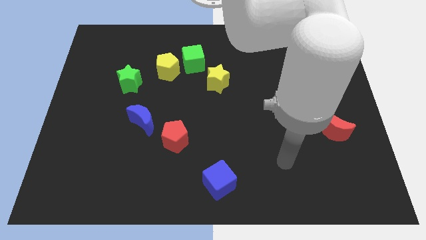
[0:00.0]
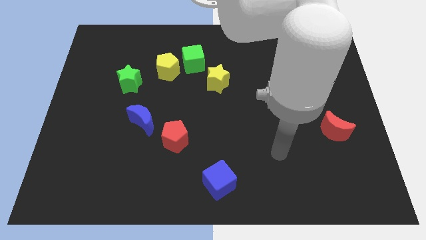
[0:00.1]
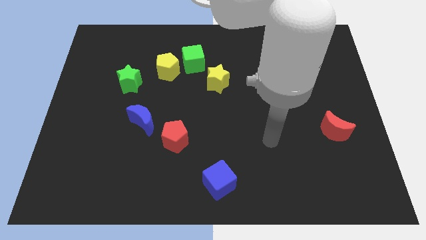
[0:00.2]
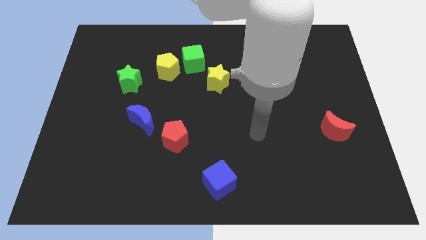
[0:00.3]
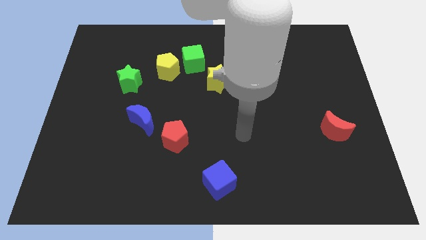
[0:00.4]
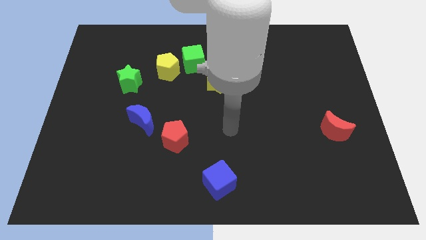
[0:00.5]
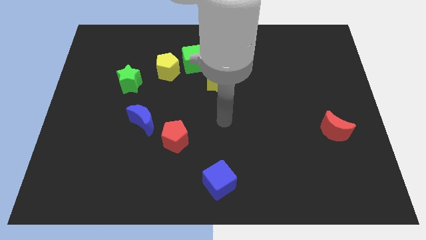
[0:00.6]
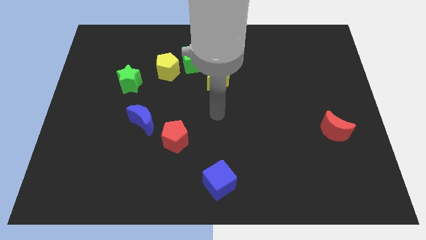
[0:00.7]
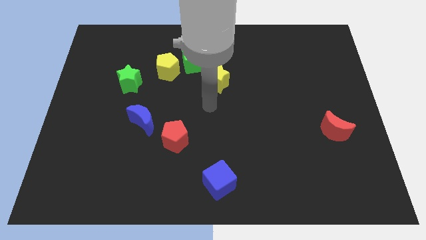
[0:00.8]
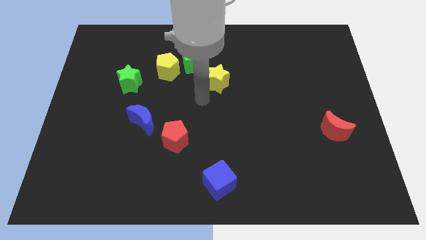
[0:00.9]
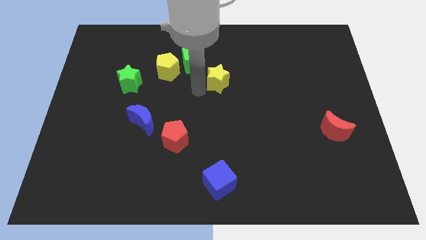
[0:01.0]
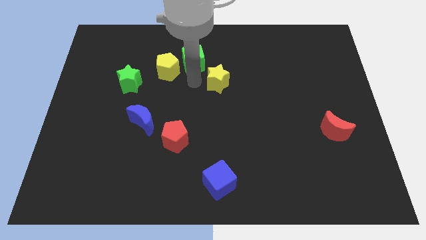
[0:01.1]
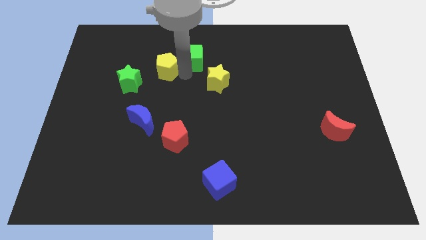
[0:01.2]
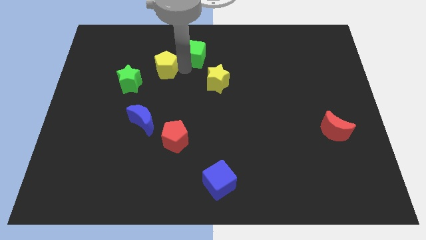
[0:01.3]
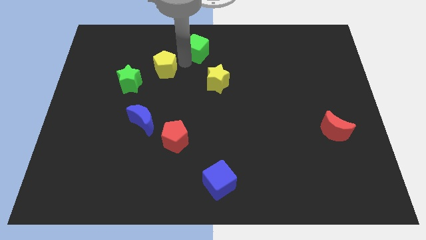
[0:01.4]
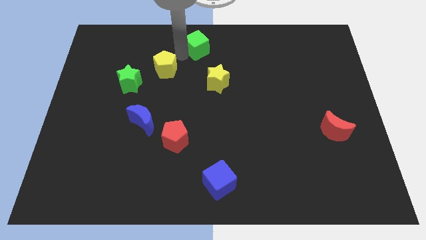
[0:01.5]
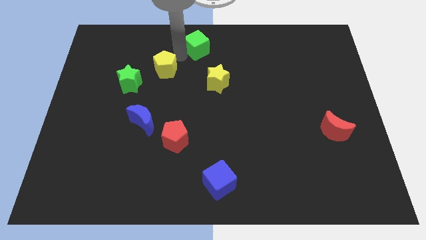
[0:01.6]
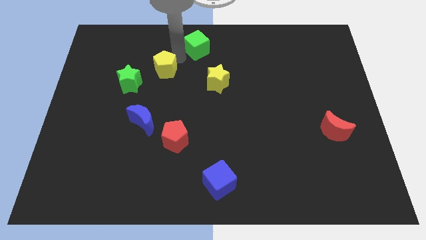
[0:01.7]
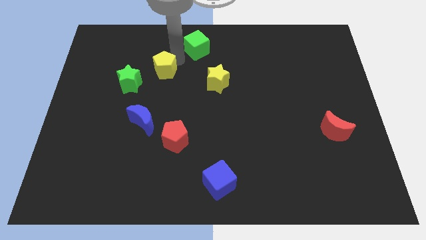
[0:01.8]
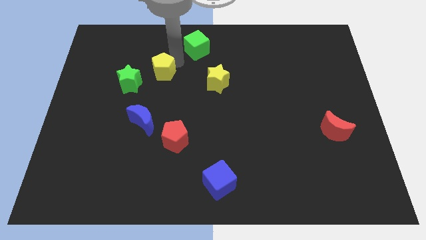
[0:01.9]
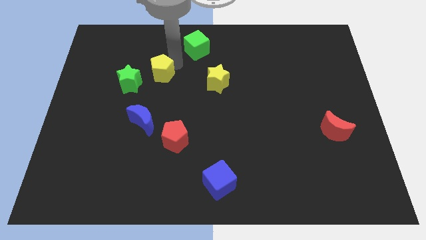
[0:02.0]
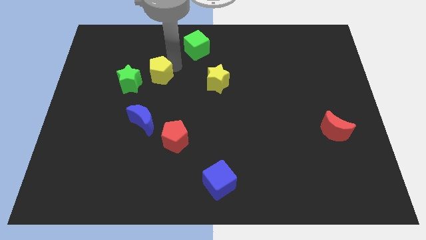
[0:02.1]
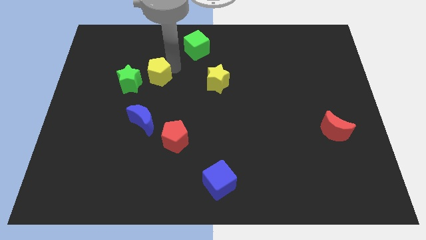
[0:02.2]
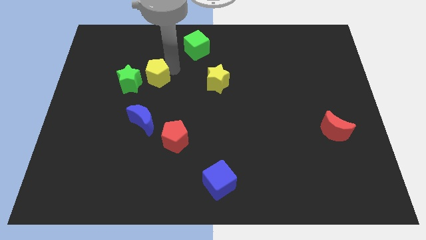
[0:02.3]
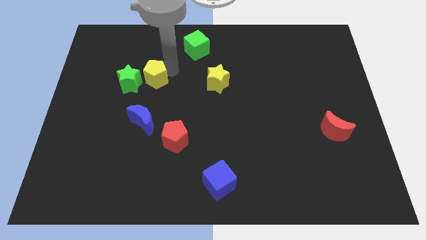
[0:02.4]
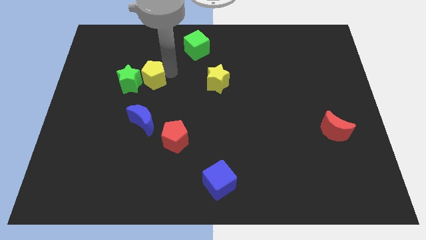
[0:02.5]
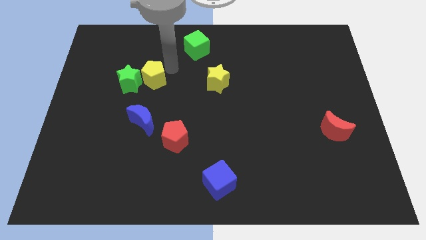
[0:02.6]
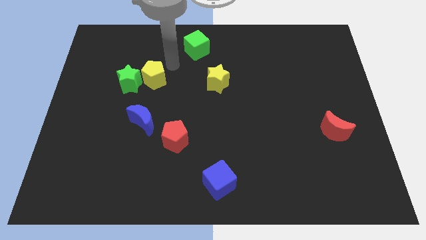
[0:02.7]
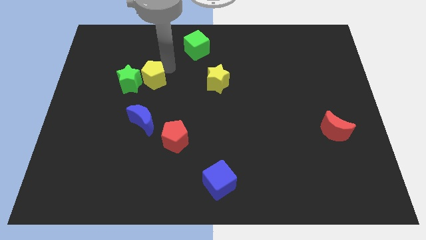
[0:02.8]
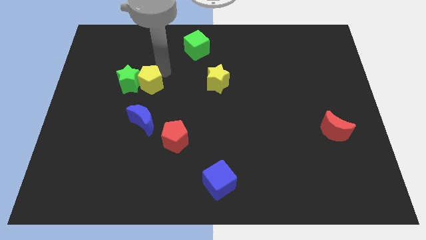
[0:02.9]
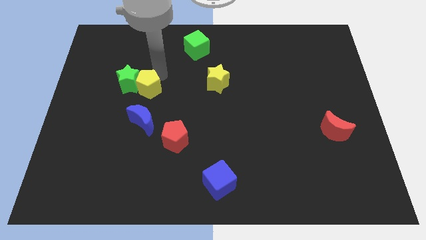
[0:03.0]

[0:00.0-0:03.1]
push the yellow pentagon down and then left a bit

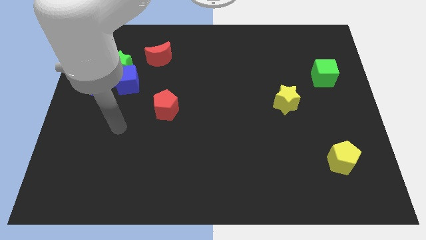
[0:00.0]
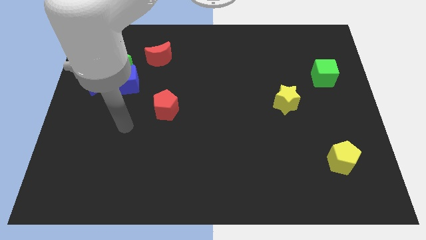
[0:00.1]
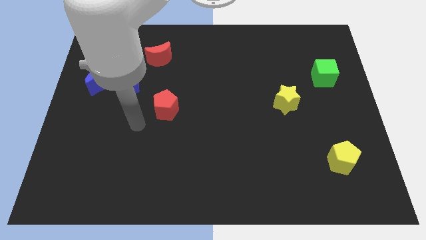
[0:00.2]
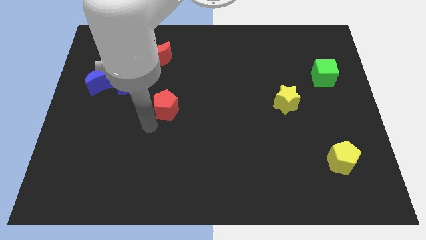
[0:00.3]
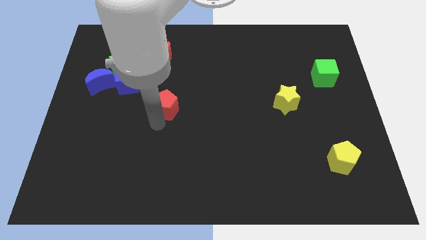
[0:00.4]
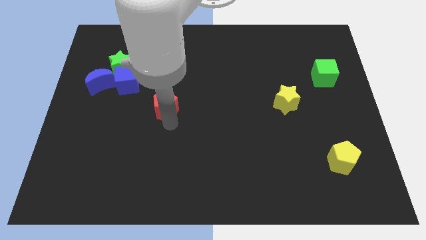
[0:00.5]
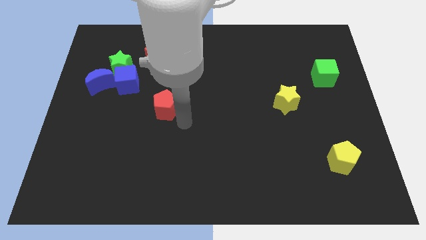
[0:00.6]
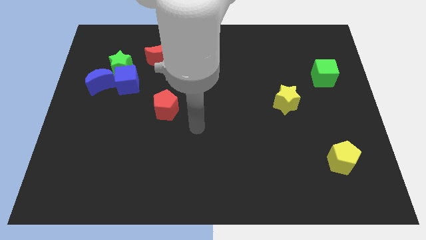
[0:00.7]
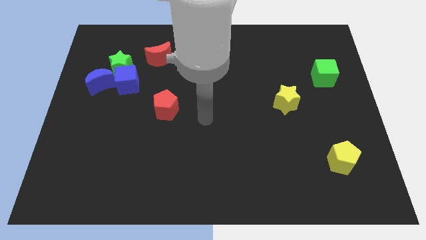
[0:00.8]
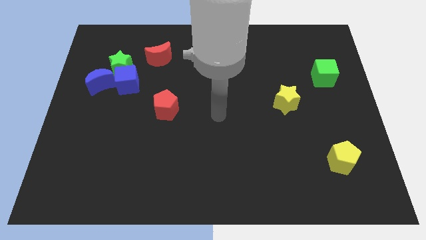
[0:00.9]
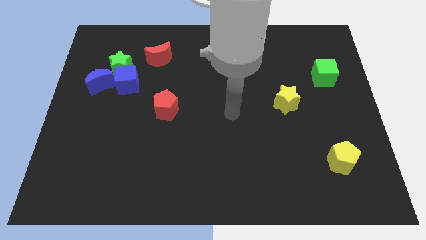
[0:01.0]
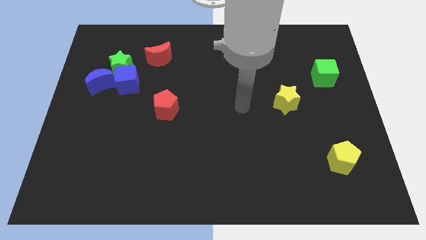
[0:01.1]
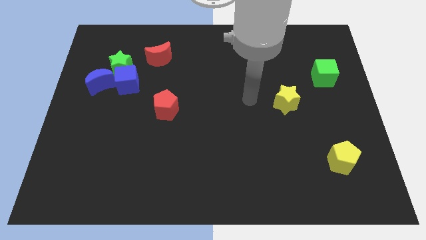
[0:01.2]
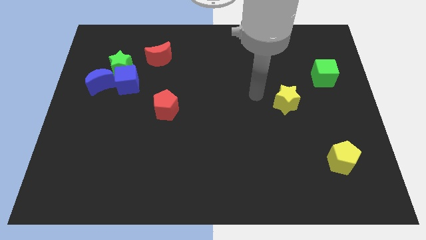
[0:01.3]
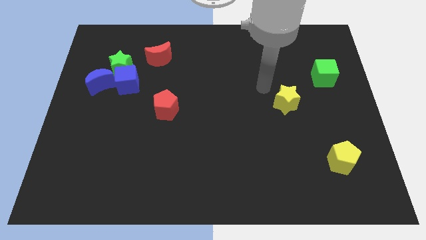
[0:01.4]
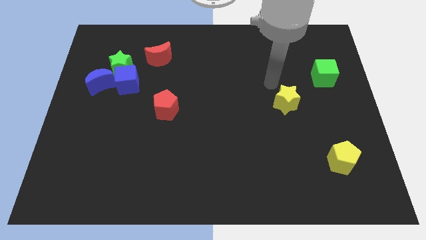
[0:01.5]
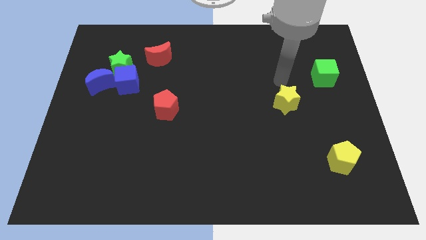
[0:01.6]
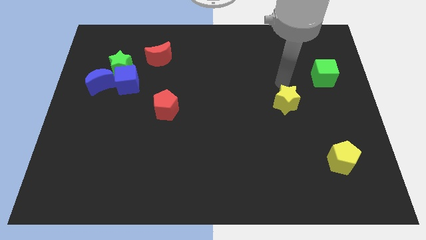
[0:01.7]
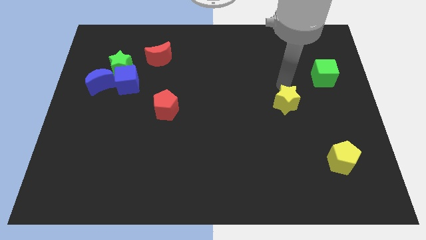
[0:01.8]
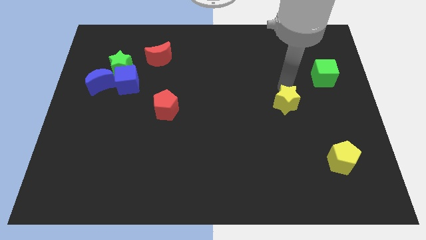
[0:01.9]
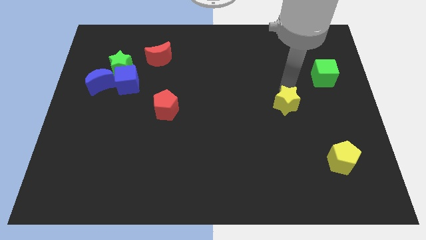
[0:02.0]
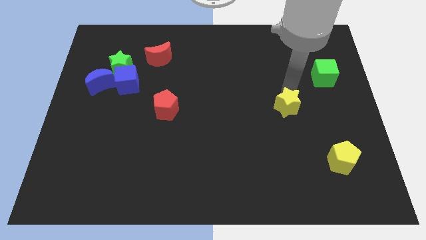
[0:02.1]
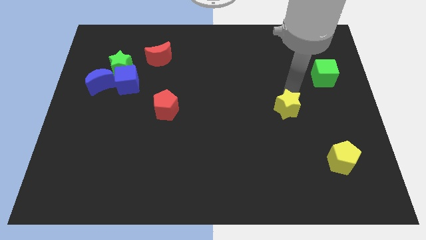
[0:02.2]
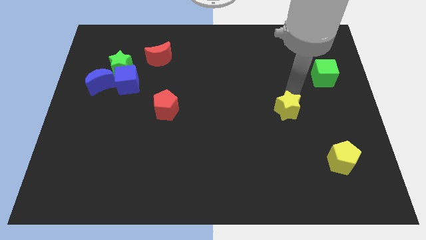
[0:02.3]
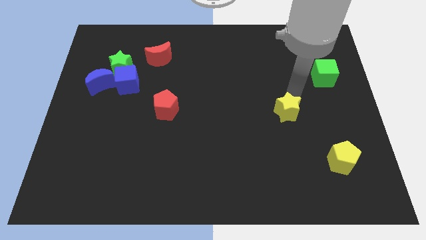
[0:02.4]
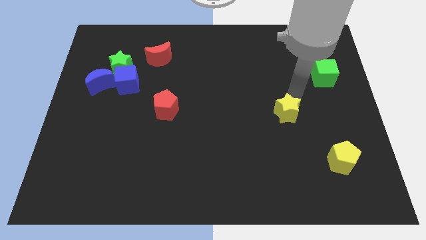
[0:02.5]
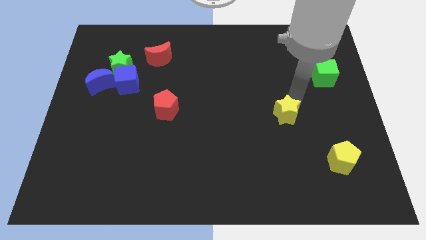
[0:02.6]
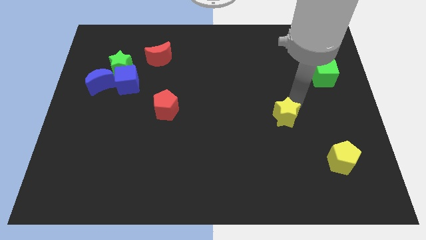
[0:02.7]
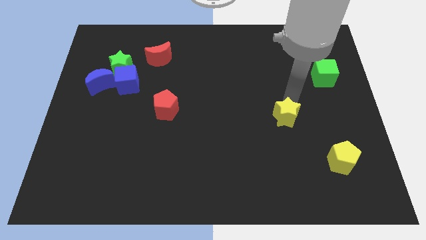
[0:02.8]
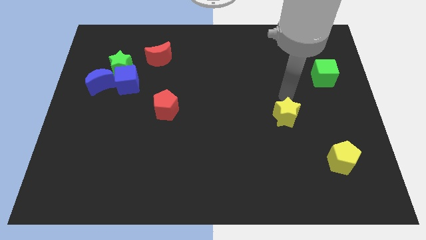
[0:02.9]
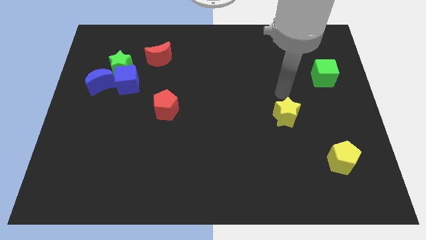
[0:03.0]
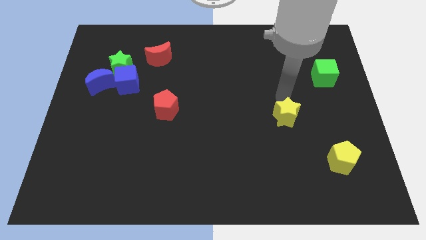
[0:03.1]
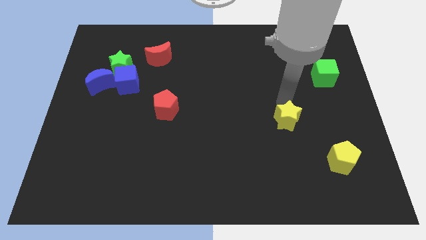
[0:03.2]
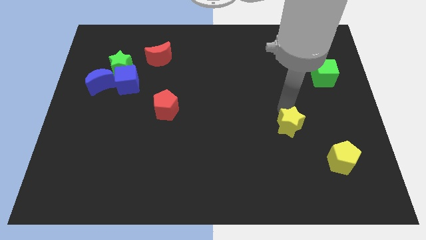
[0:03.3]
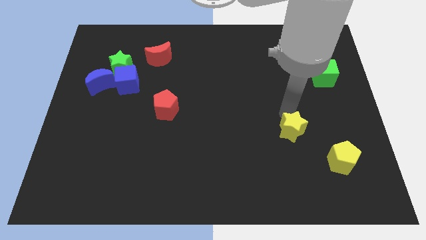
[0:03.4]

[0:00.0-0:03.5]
move the yellow star down somewhat

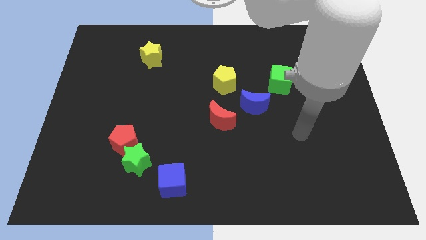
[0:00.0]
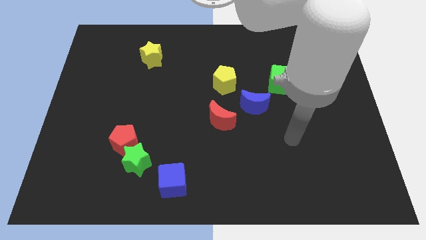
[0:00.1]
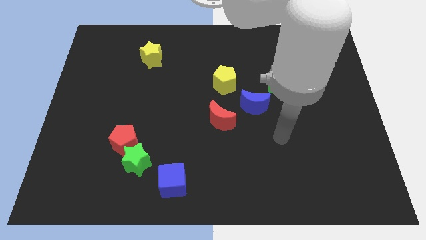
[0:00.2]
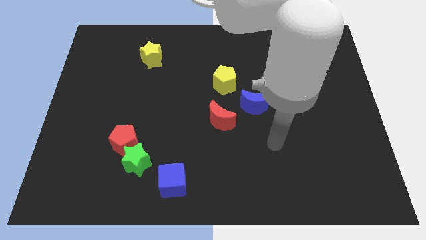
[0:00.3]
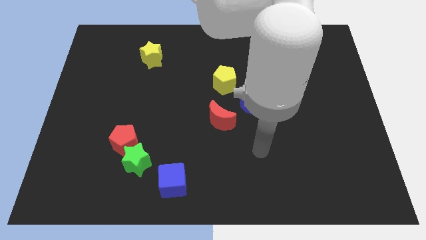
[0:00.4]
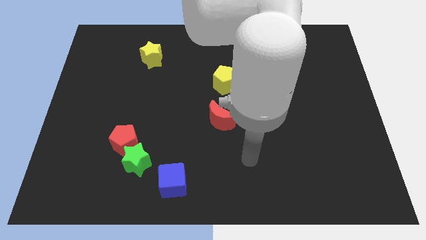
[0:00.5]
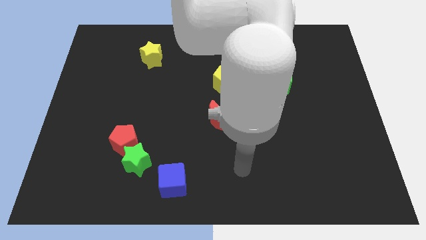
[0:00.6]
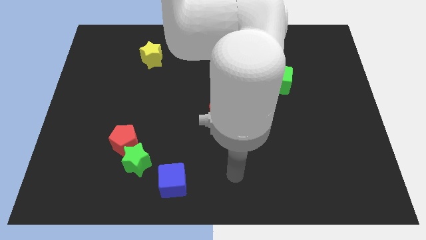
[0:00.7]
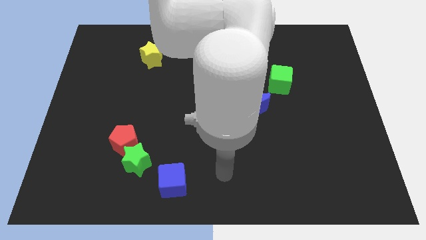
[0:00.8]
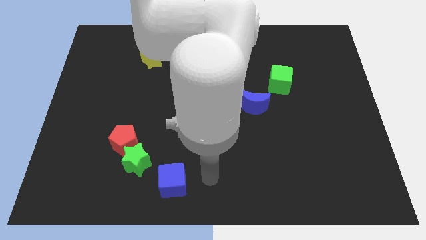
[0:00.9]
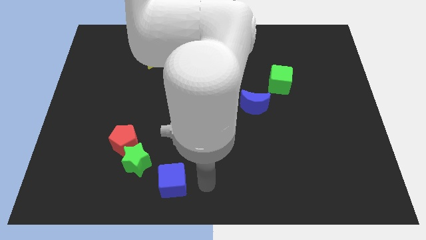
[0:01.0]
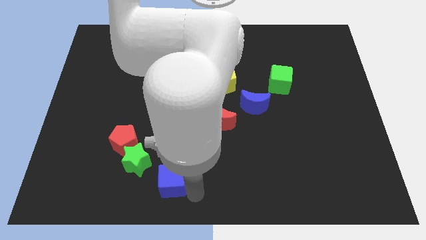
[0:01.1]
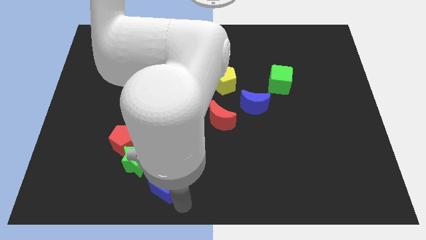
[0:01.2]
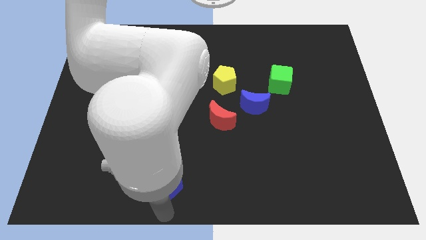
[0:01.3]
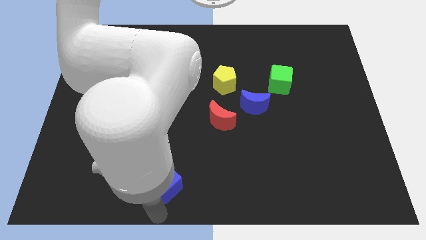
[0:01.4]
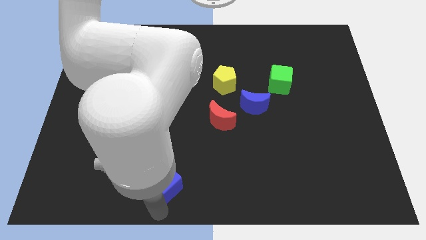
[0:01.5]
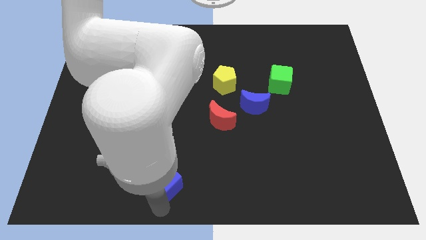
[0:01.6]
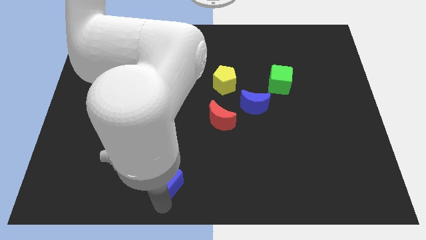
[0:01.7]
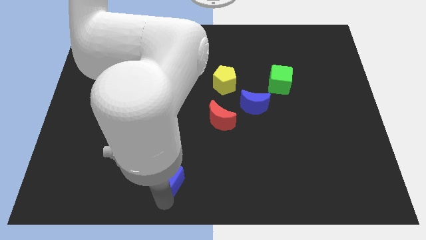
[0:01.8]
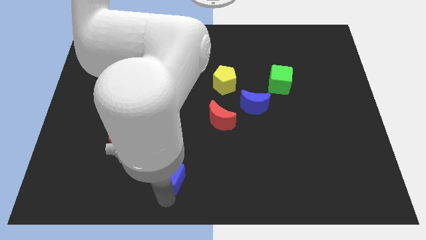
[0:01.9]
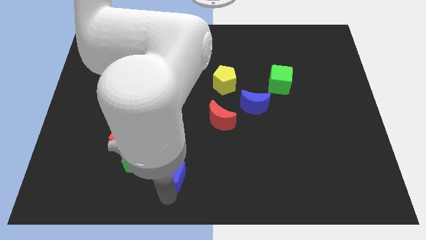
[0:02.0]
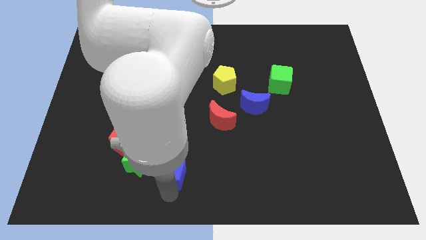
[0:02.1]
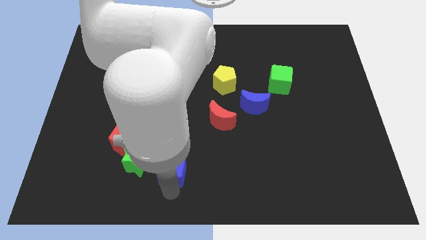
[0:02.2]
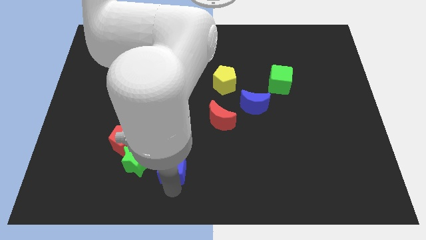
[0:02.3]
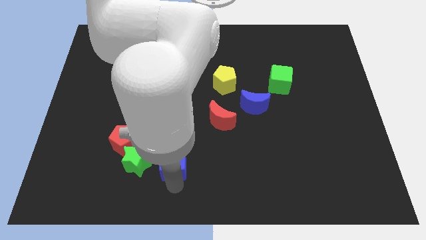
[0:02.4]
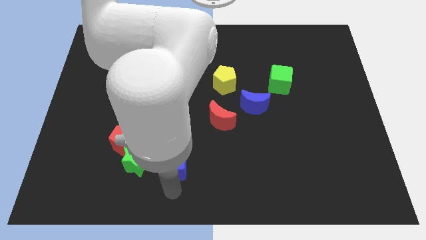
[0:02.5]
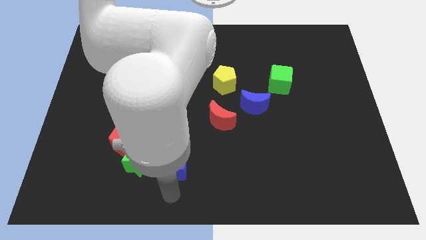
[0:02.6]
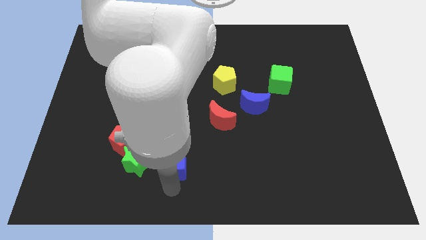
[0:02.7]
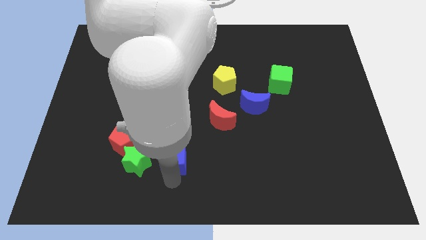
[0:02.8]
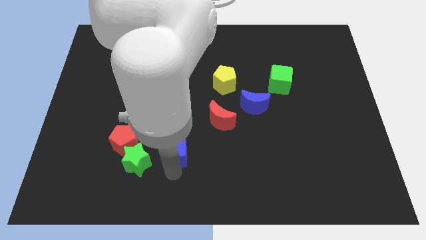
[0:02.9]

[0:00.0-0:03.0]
slightly push the blue cube up
